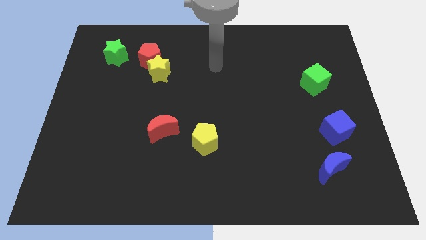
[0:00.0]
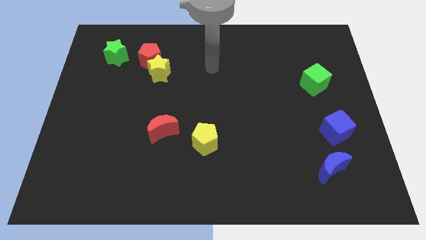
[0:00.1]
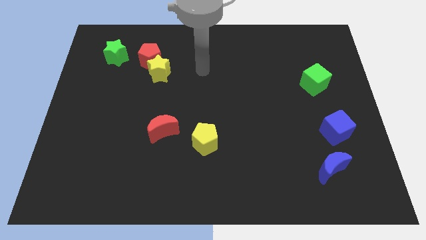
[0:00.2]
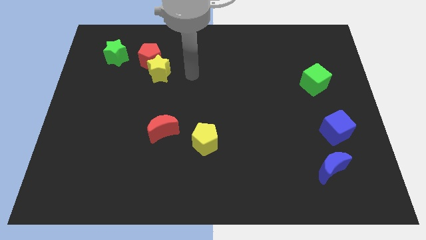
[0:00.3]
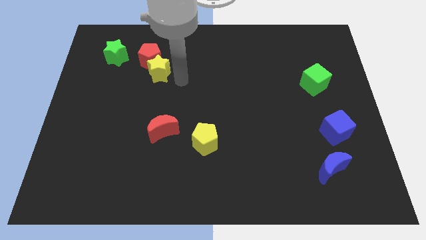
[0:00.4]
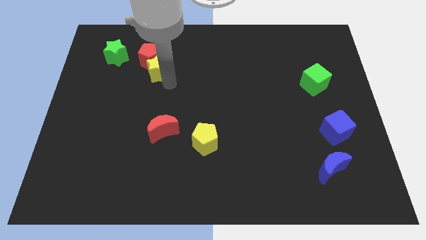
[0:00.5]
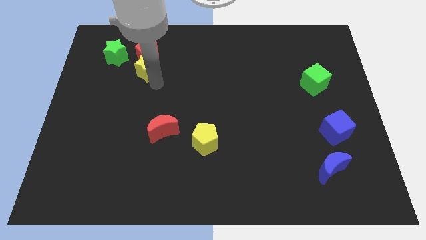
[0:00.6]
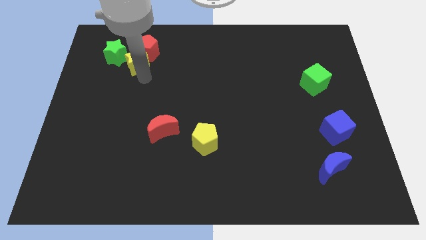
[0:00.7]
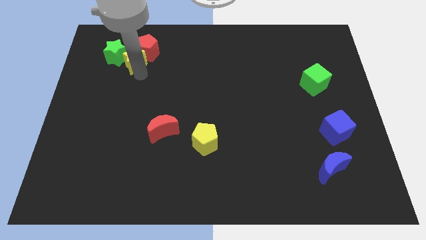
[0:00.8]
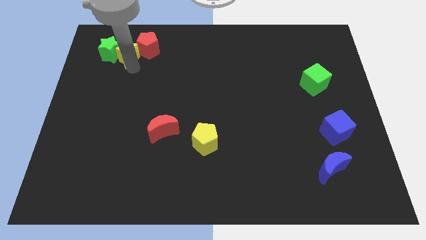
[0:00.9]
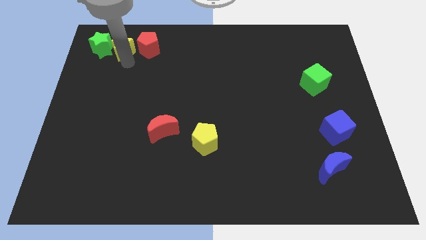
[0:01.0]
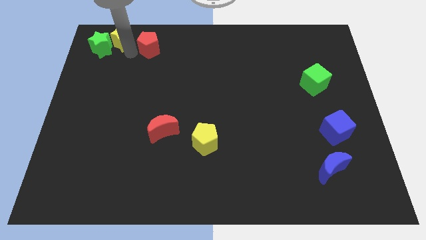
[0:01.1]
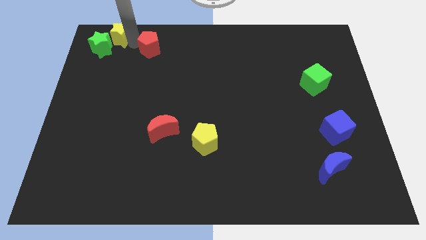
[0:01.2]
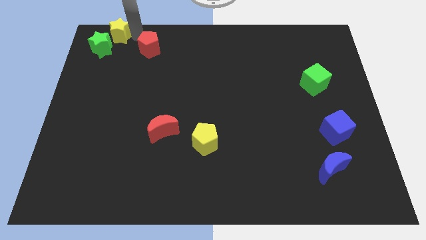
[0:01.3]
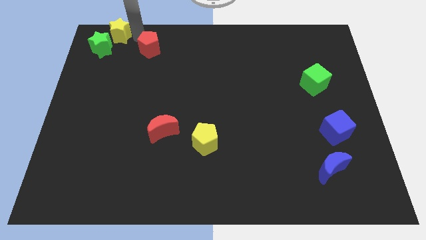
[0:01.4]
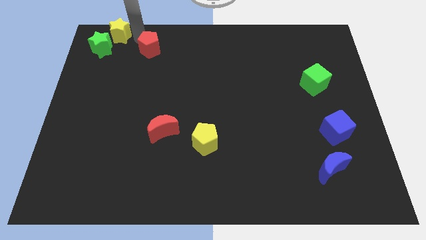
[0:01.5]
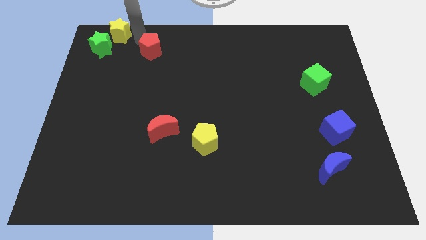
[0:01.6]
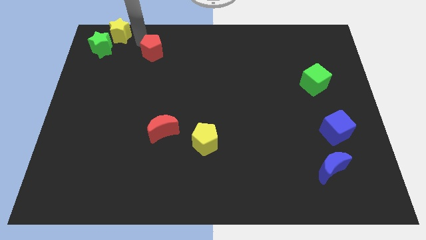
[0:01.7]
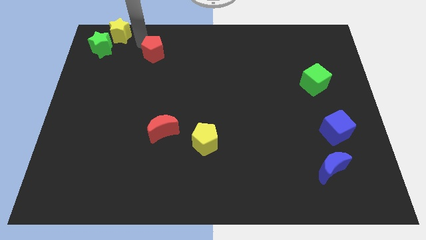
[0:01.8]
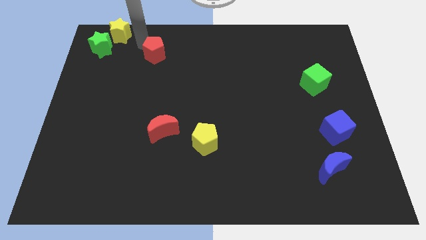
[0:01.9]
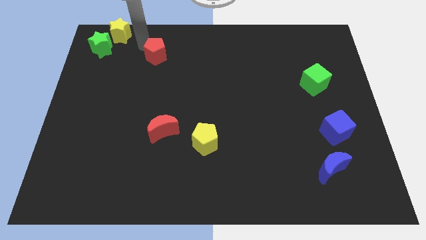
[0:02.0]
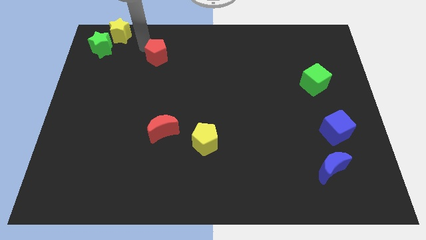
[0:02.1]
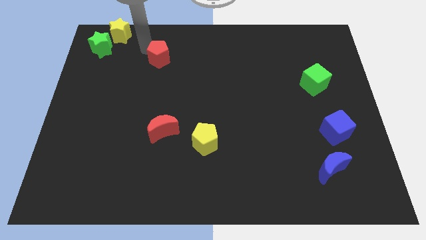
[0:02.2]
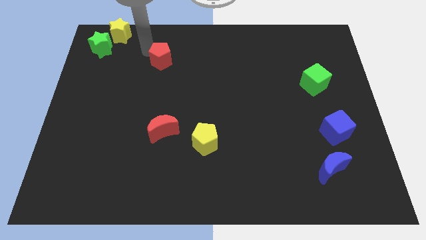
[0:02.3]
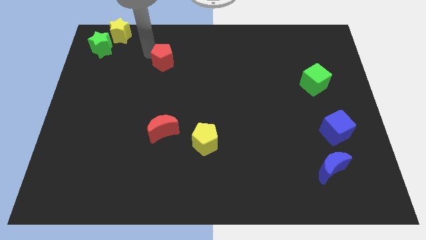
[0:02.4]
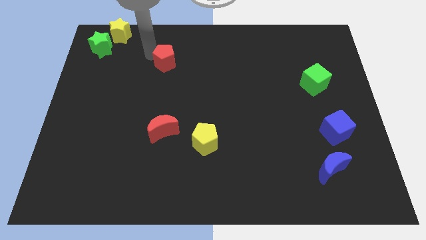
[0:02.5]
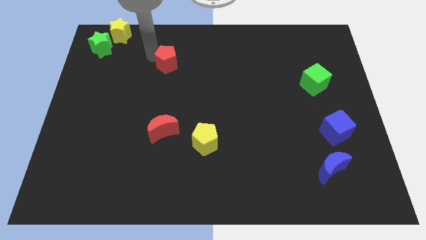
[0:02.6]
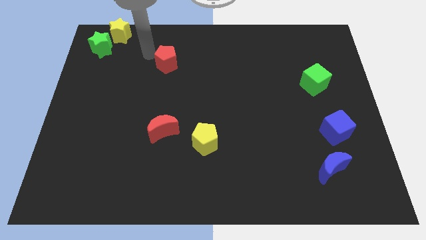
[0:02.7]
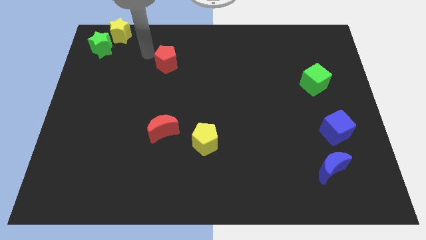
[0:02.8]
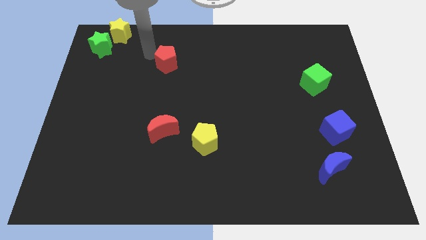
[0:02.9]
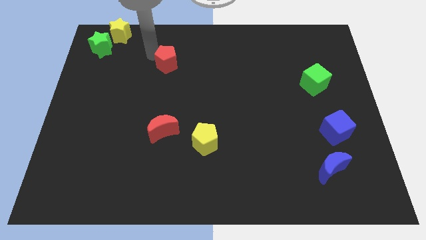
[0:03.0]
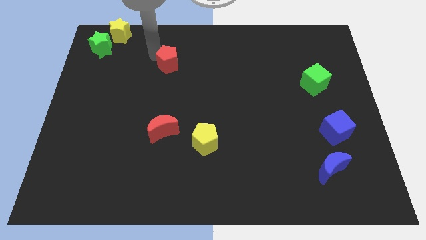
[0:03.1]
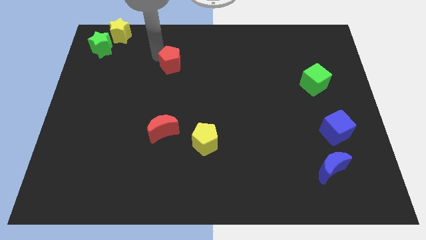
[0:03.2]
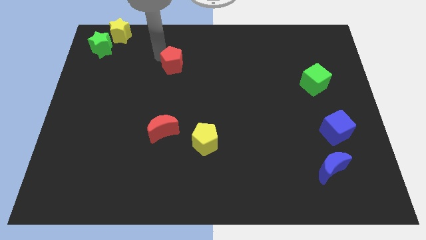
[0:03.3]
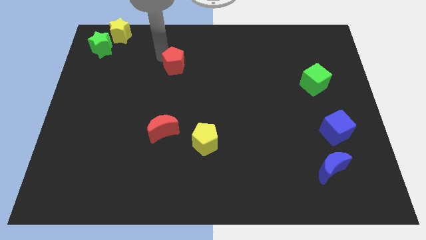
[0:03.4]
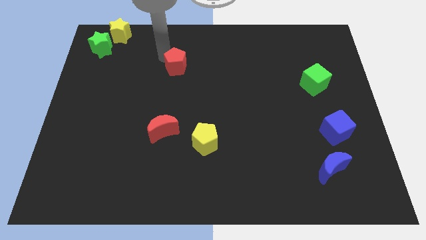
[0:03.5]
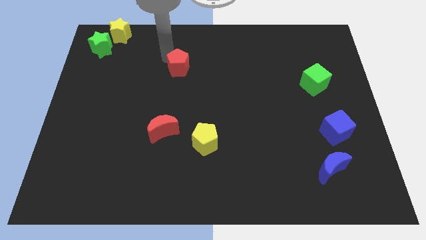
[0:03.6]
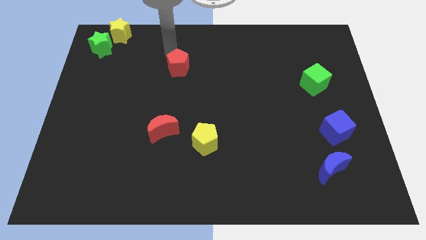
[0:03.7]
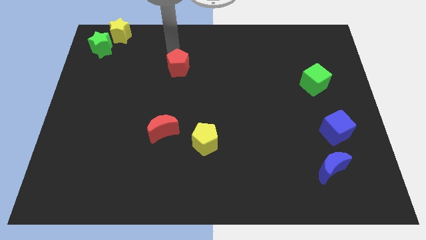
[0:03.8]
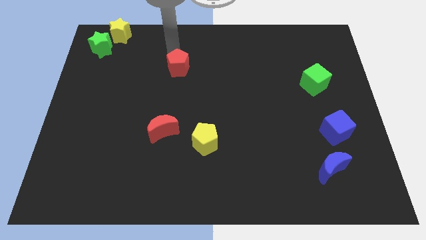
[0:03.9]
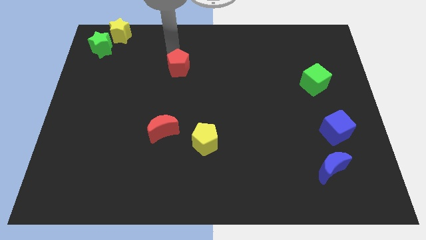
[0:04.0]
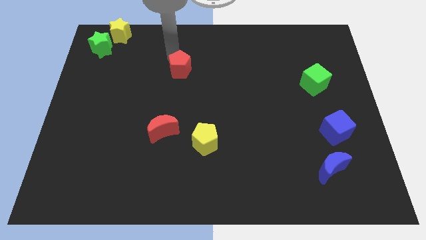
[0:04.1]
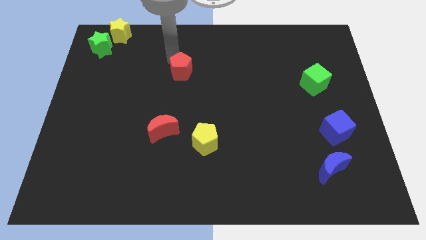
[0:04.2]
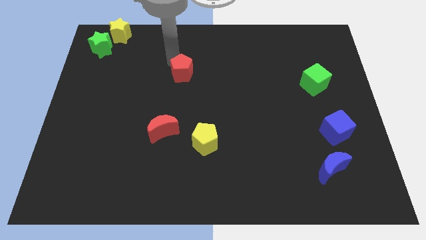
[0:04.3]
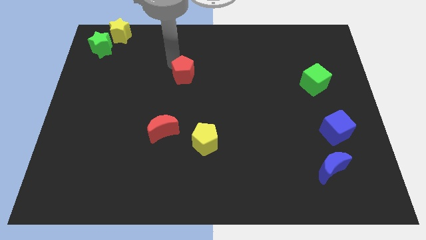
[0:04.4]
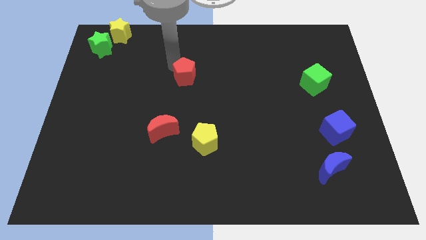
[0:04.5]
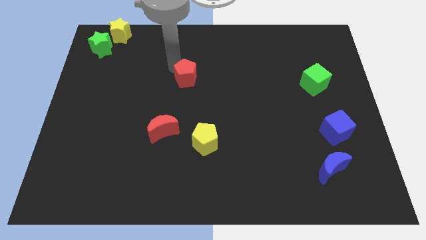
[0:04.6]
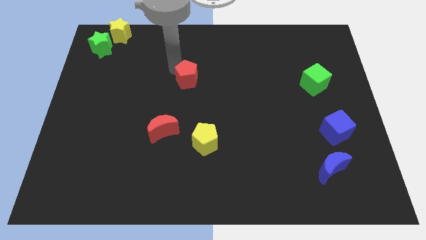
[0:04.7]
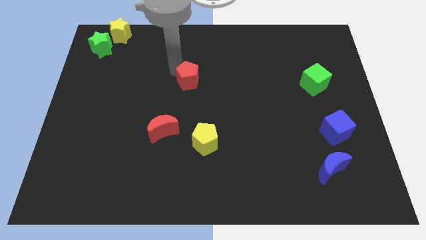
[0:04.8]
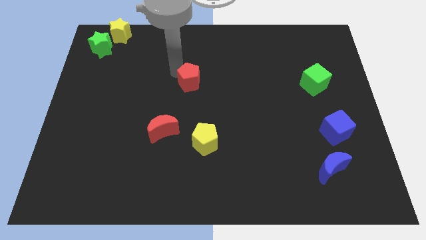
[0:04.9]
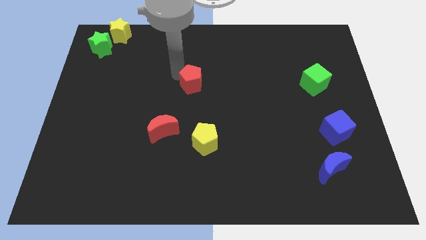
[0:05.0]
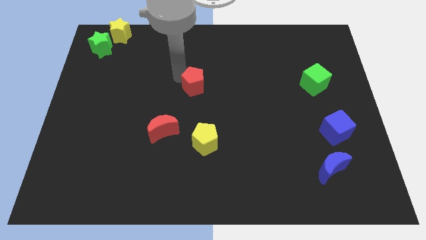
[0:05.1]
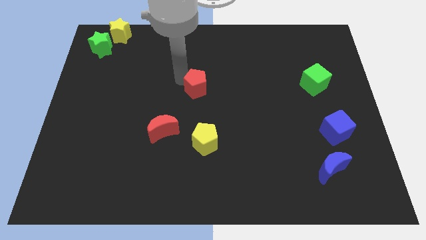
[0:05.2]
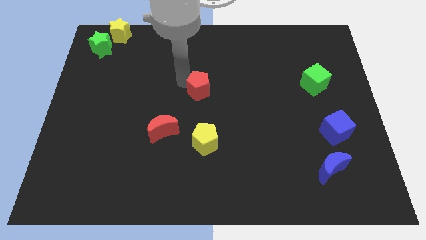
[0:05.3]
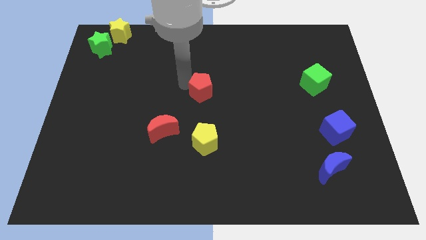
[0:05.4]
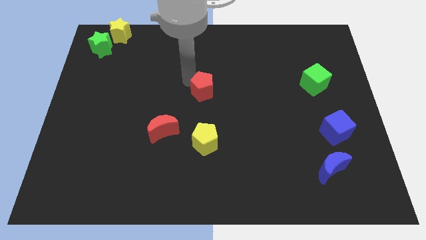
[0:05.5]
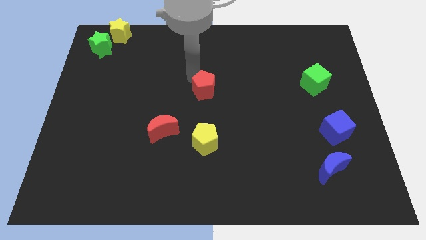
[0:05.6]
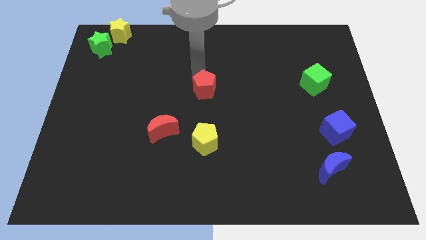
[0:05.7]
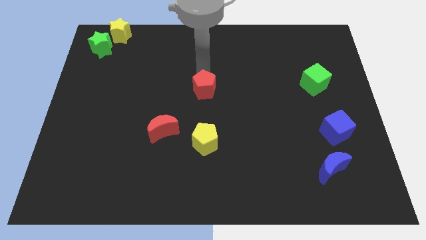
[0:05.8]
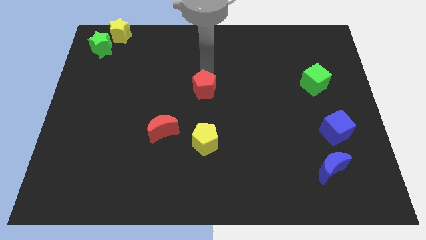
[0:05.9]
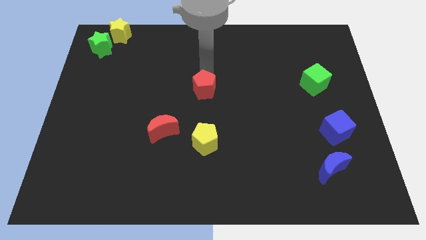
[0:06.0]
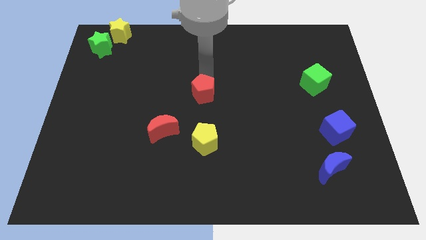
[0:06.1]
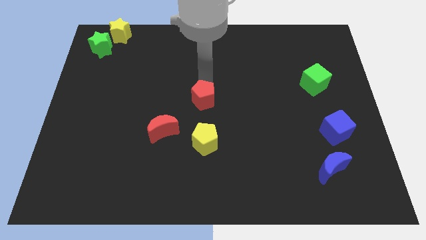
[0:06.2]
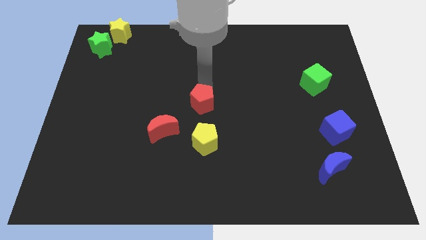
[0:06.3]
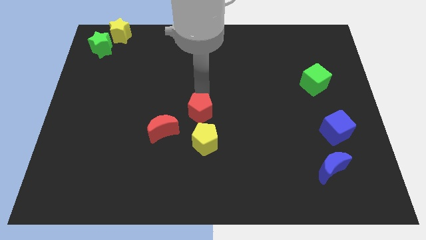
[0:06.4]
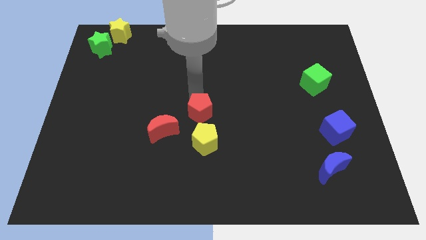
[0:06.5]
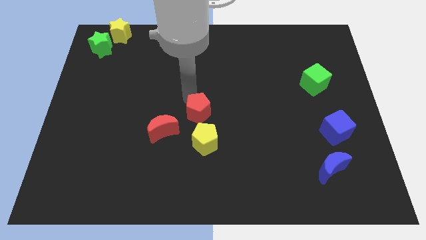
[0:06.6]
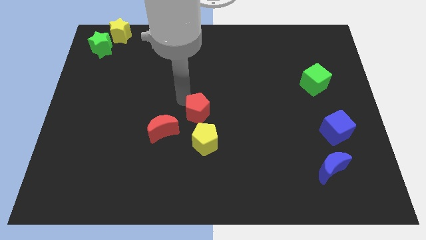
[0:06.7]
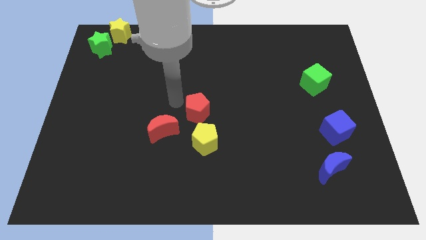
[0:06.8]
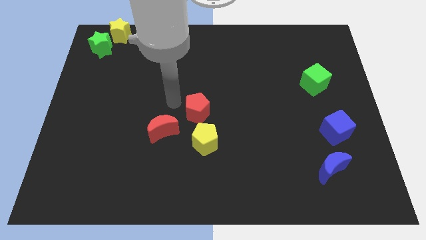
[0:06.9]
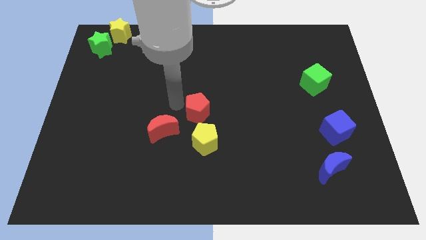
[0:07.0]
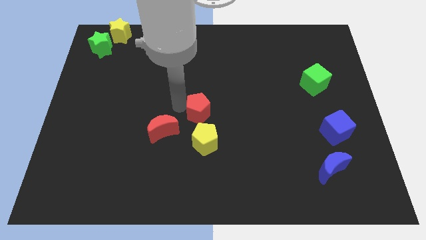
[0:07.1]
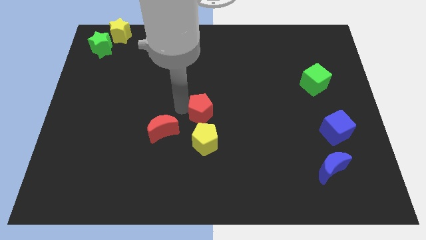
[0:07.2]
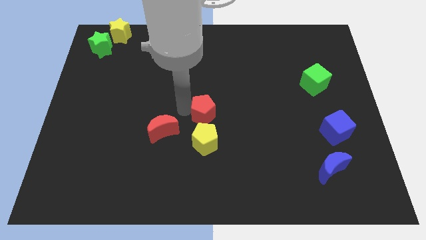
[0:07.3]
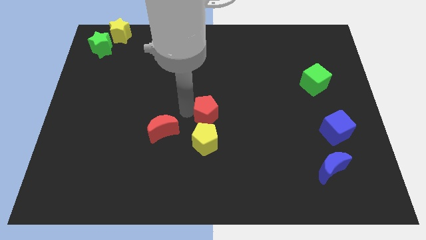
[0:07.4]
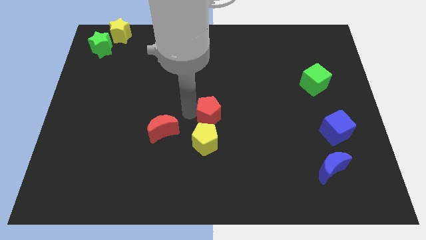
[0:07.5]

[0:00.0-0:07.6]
push the red pentagon diagonally up and to the right of the yellow pentagon
